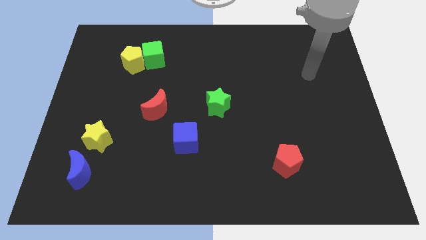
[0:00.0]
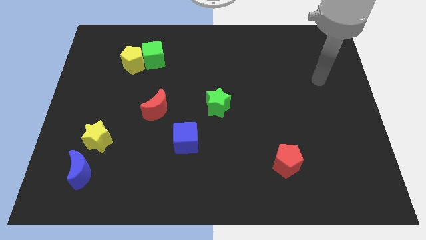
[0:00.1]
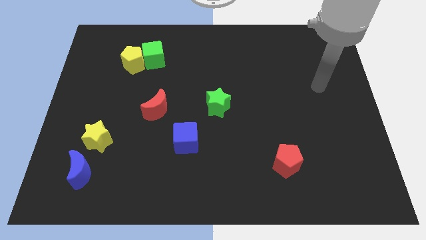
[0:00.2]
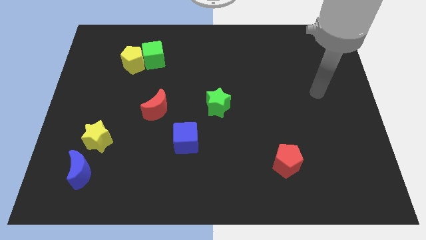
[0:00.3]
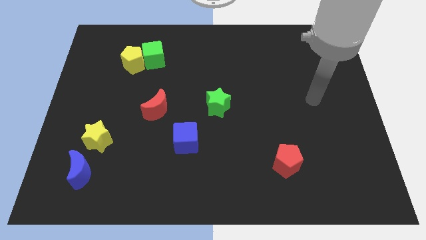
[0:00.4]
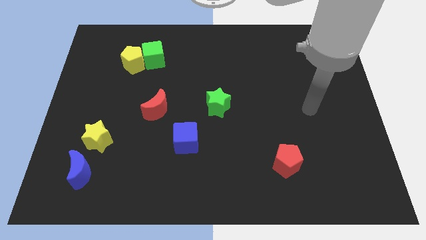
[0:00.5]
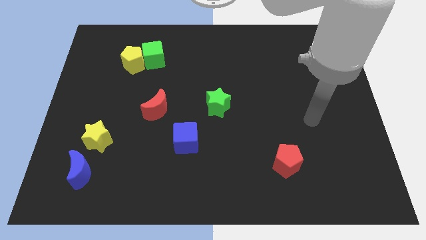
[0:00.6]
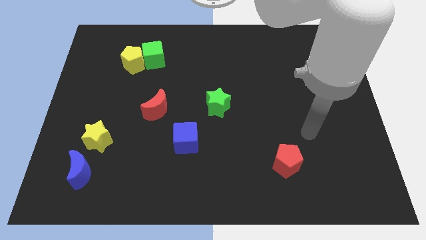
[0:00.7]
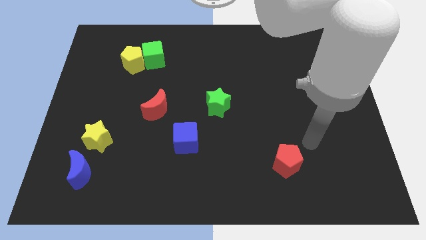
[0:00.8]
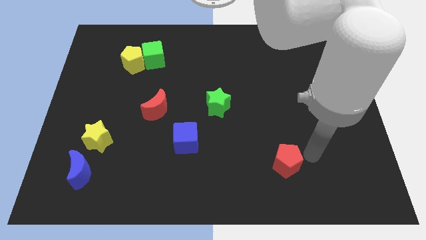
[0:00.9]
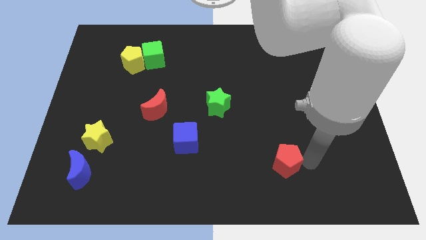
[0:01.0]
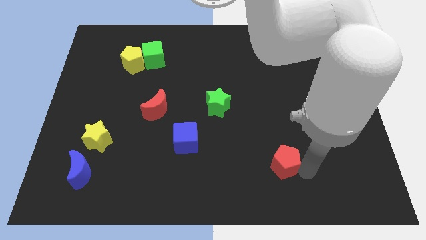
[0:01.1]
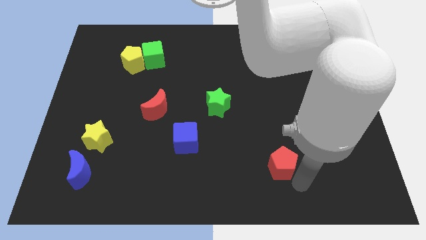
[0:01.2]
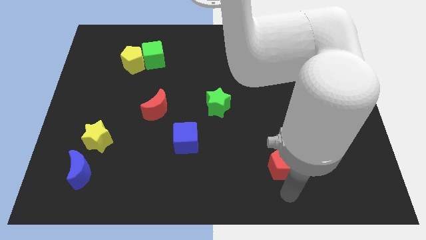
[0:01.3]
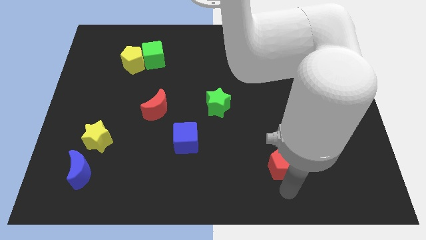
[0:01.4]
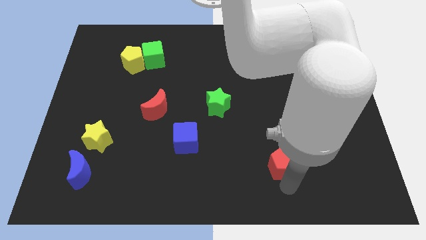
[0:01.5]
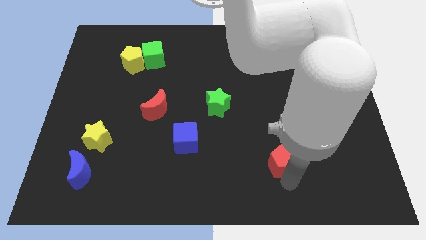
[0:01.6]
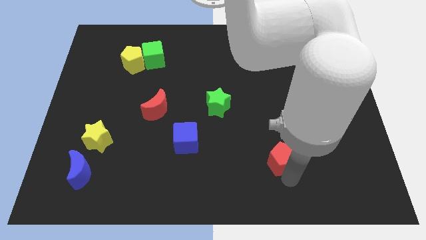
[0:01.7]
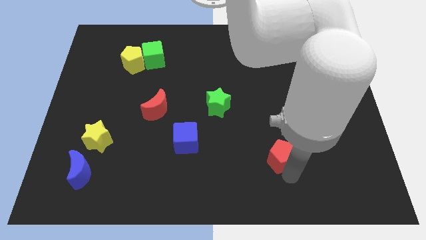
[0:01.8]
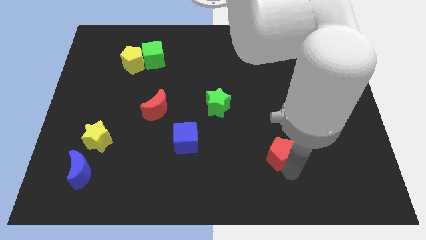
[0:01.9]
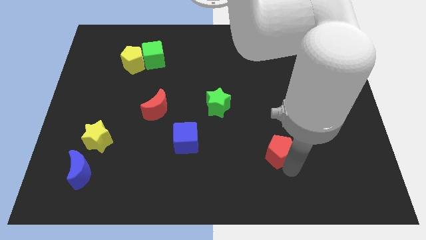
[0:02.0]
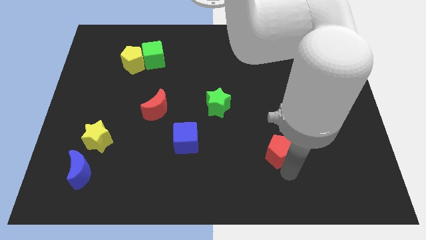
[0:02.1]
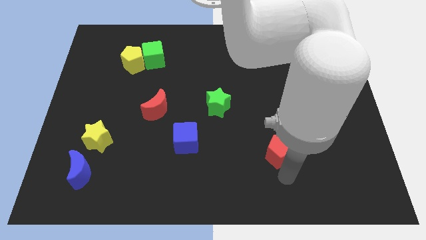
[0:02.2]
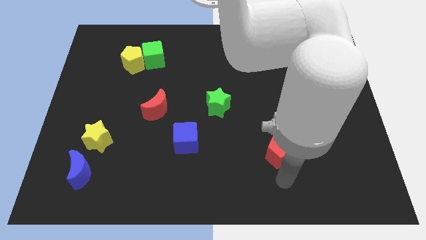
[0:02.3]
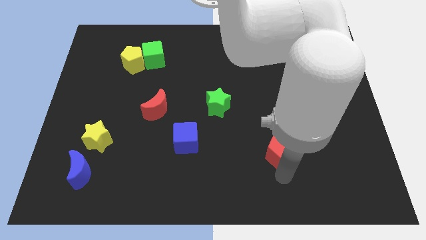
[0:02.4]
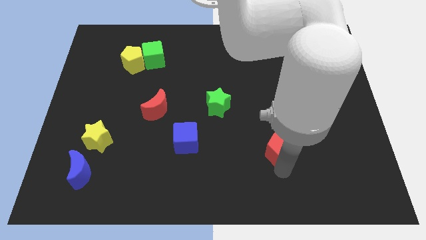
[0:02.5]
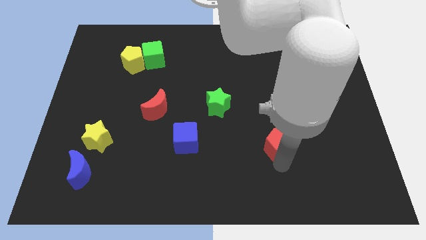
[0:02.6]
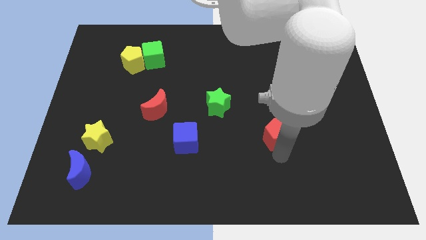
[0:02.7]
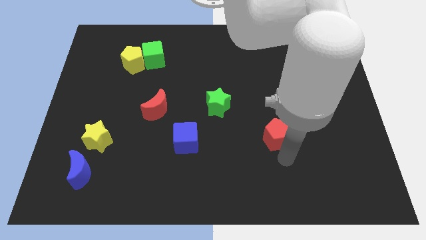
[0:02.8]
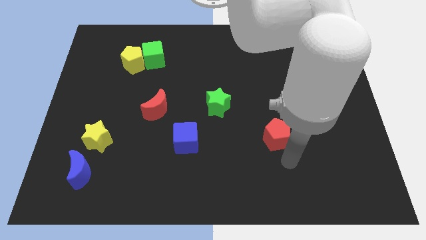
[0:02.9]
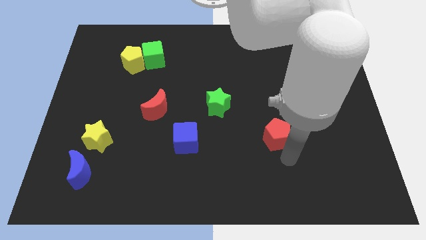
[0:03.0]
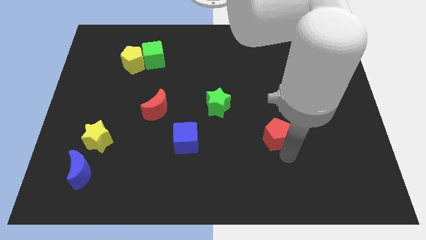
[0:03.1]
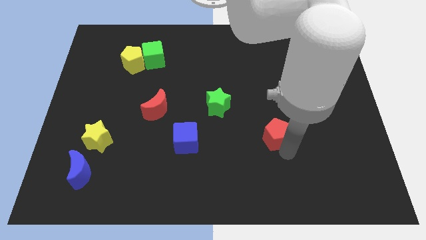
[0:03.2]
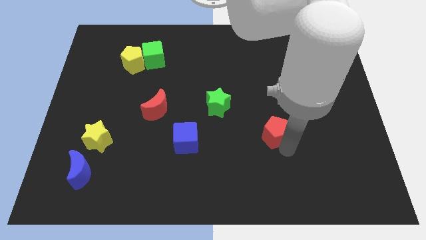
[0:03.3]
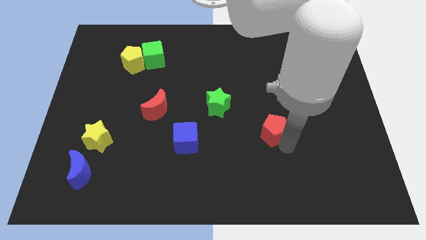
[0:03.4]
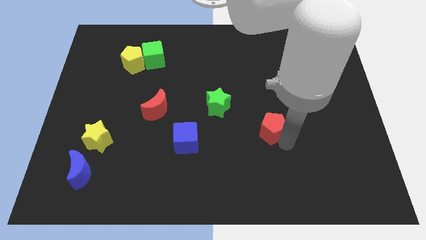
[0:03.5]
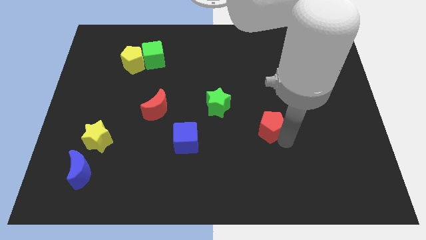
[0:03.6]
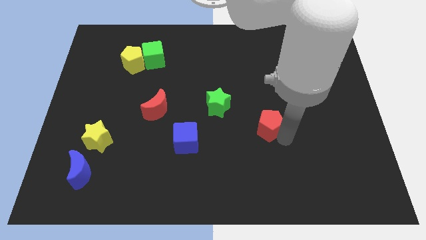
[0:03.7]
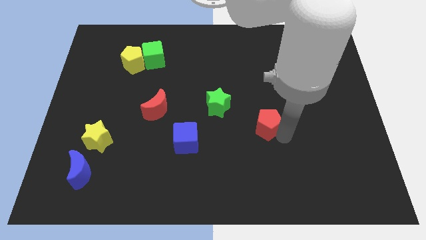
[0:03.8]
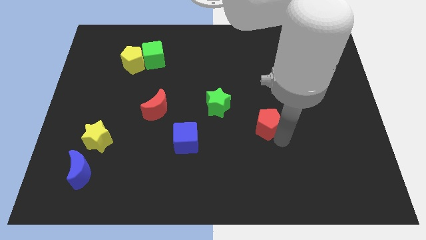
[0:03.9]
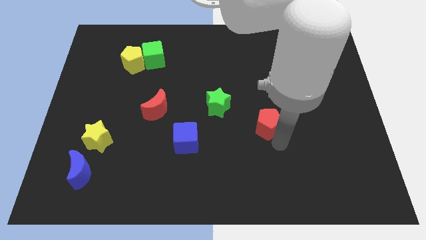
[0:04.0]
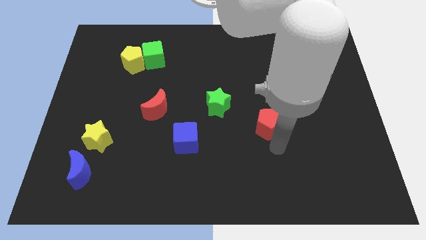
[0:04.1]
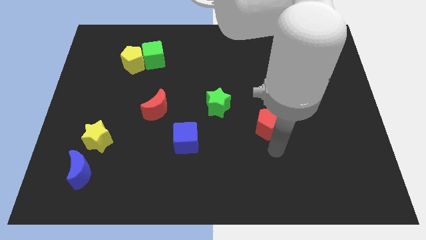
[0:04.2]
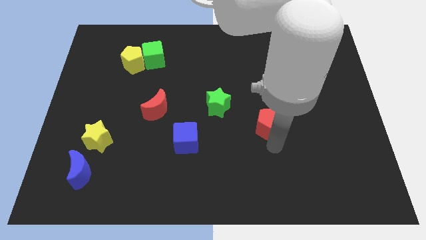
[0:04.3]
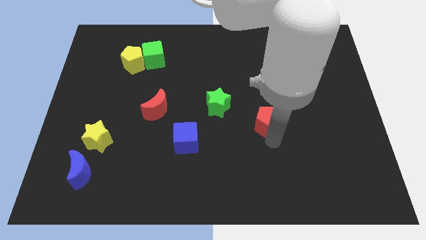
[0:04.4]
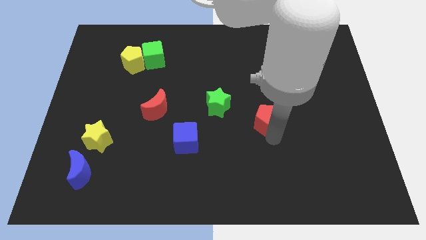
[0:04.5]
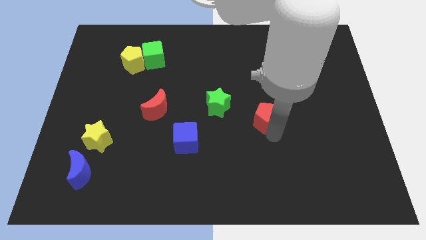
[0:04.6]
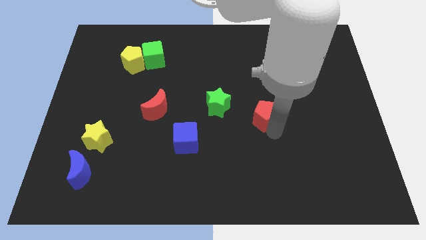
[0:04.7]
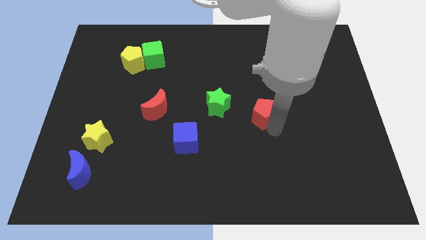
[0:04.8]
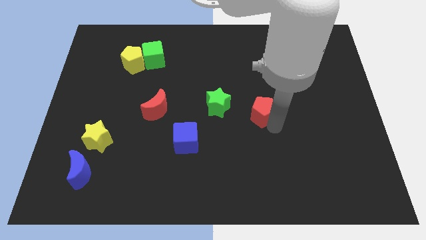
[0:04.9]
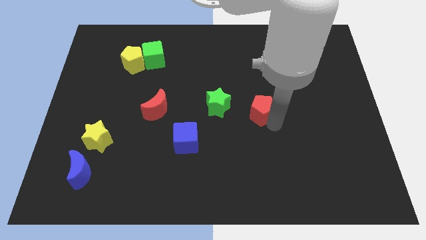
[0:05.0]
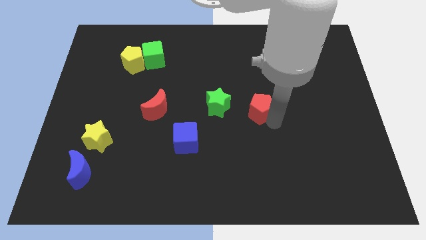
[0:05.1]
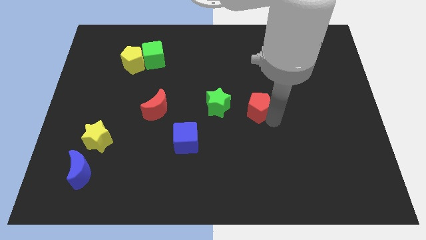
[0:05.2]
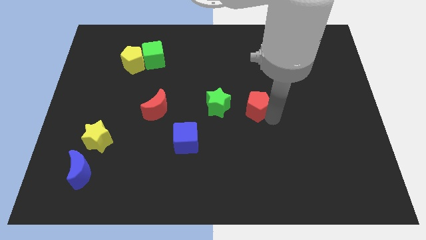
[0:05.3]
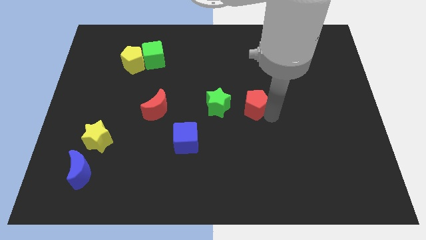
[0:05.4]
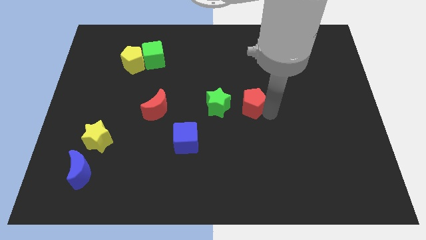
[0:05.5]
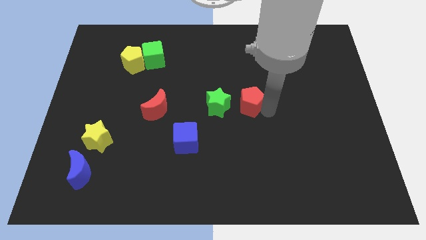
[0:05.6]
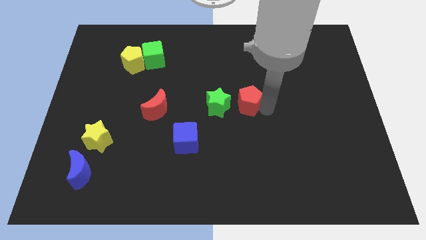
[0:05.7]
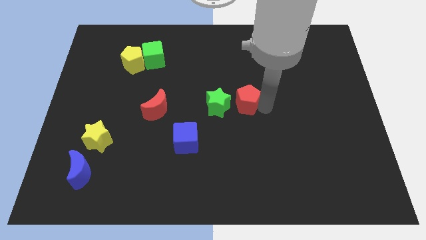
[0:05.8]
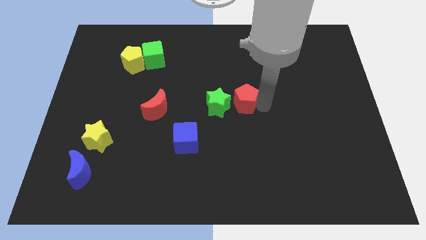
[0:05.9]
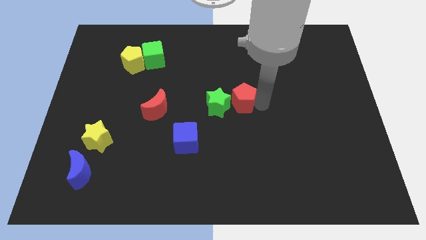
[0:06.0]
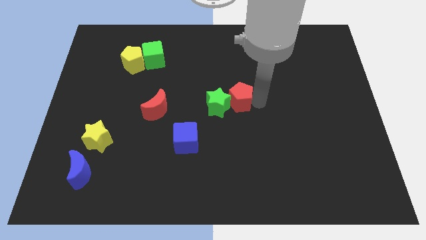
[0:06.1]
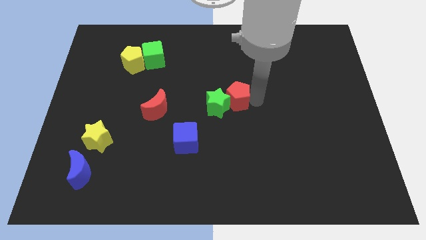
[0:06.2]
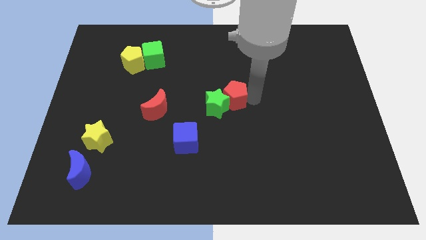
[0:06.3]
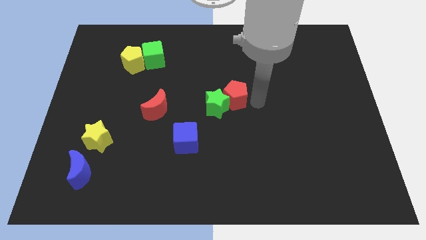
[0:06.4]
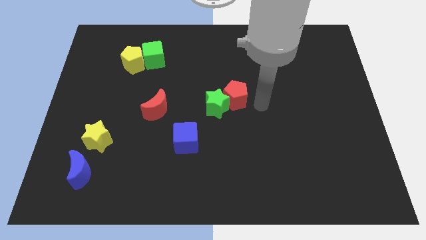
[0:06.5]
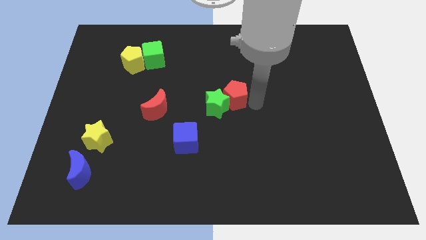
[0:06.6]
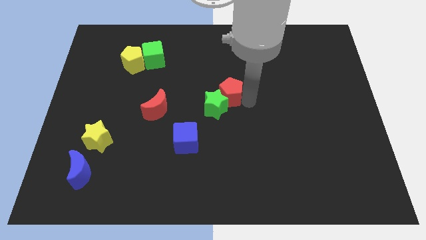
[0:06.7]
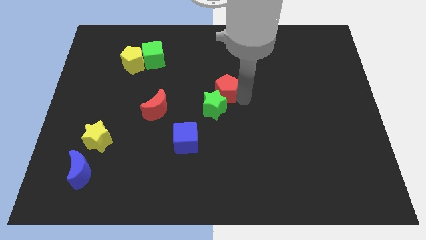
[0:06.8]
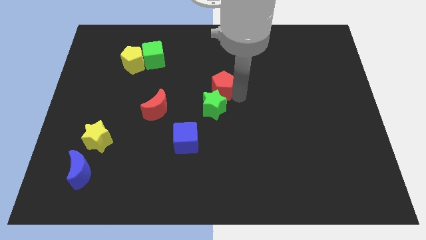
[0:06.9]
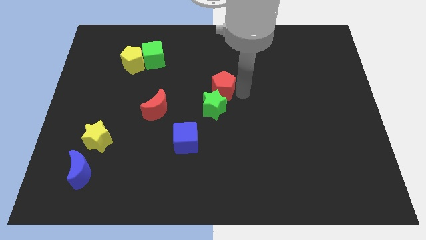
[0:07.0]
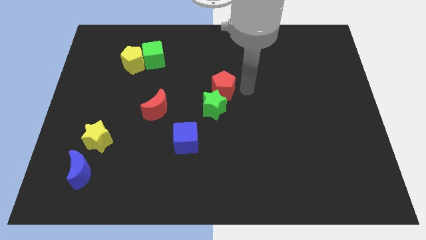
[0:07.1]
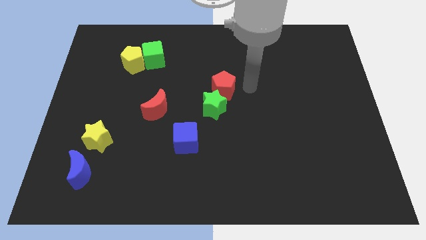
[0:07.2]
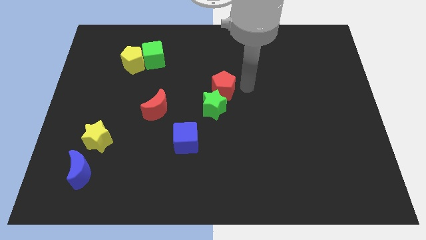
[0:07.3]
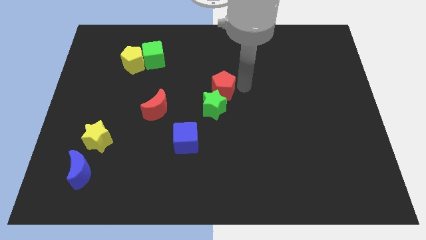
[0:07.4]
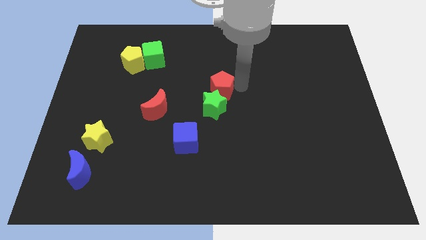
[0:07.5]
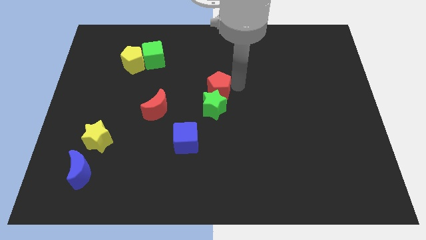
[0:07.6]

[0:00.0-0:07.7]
move the red pentagon to the top left side of the green star

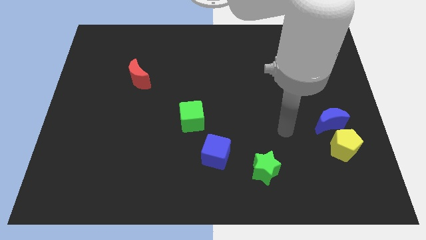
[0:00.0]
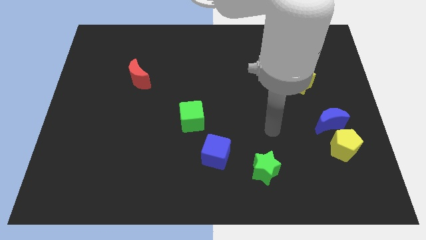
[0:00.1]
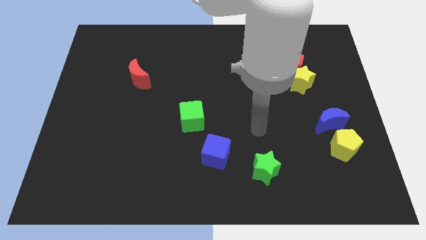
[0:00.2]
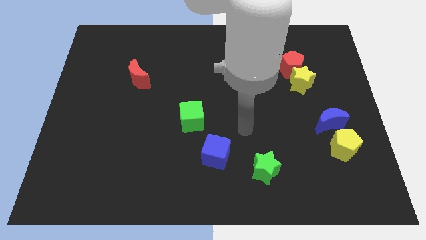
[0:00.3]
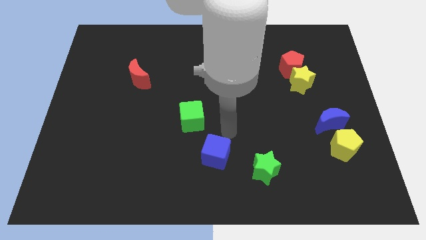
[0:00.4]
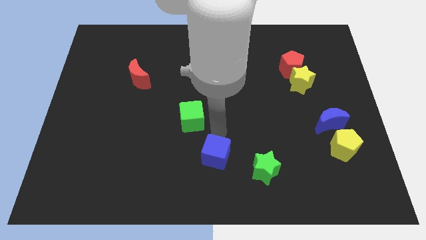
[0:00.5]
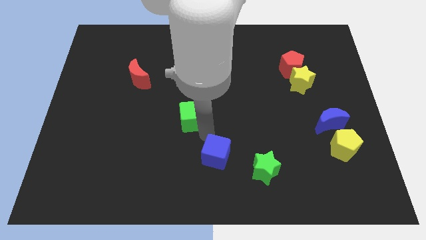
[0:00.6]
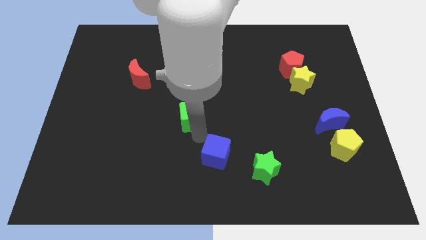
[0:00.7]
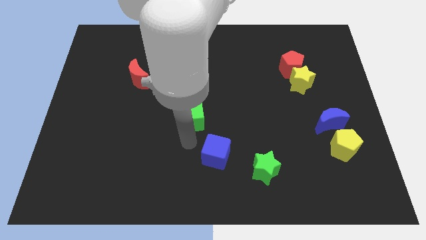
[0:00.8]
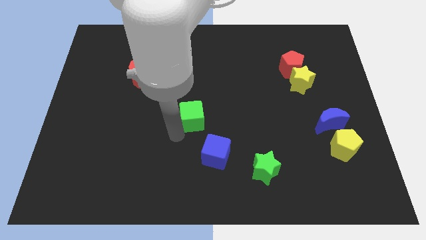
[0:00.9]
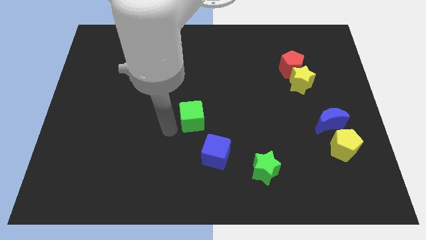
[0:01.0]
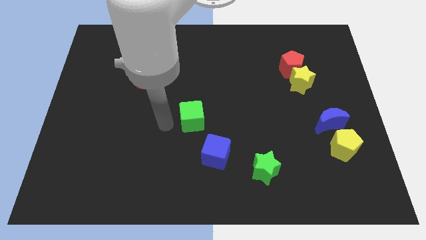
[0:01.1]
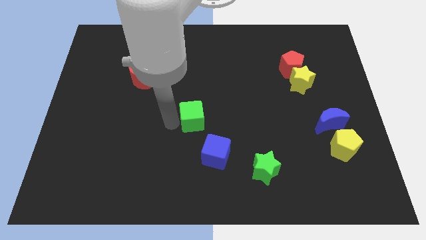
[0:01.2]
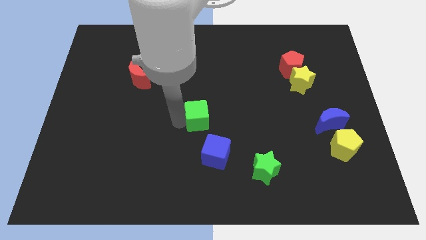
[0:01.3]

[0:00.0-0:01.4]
move the green cube to the top side of the blue cube
